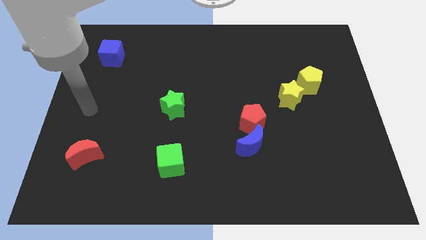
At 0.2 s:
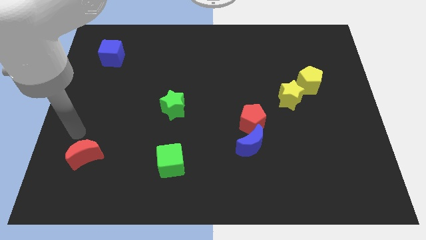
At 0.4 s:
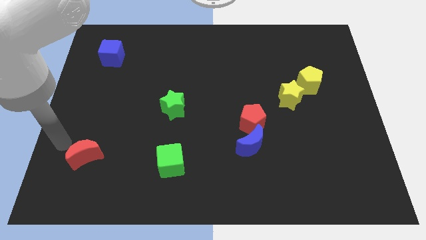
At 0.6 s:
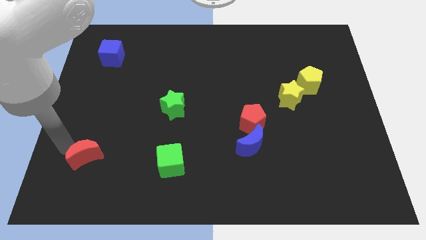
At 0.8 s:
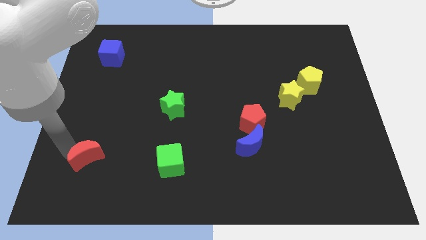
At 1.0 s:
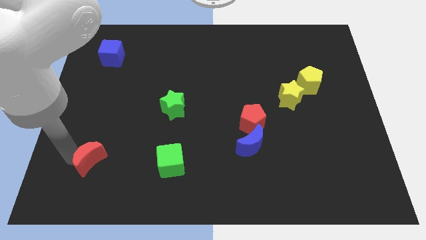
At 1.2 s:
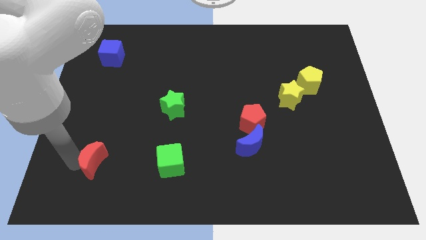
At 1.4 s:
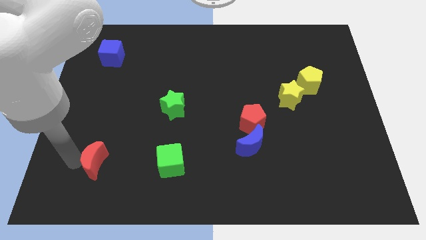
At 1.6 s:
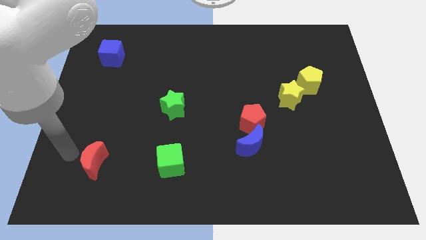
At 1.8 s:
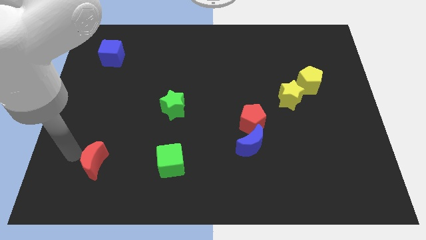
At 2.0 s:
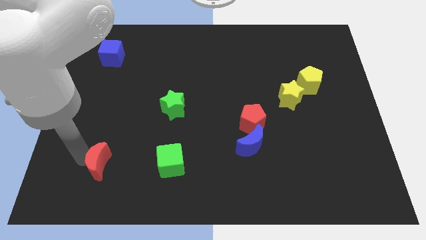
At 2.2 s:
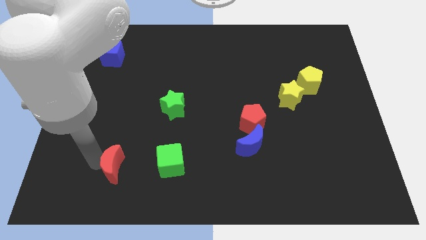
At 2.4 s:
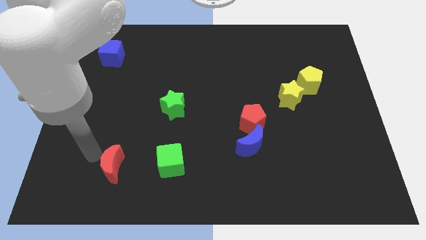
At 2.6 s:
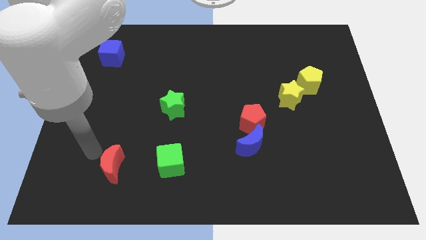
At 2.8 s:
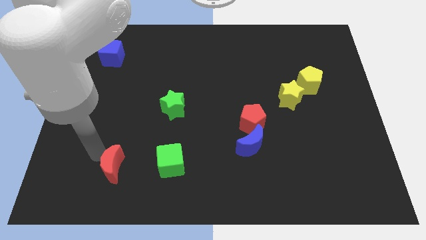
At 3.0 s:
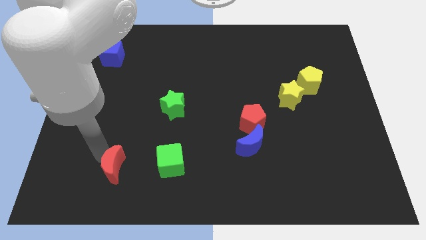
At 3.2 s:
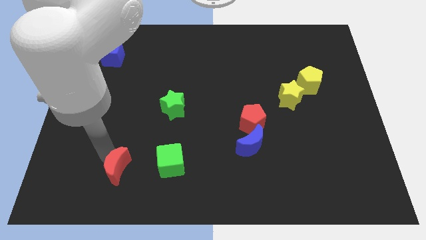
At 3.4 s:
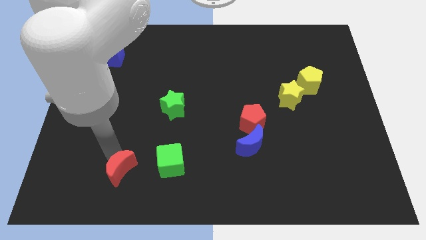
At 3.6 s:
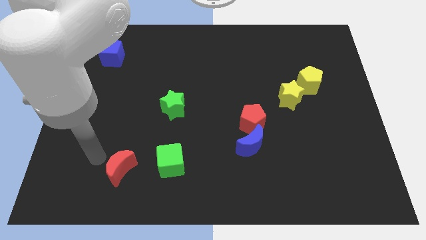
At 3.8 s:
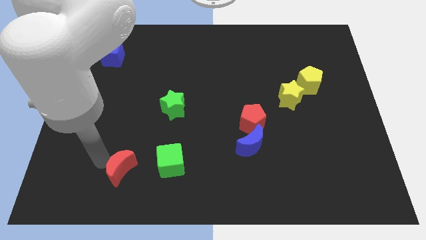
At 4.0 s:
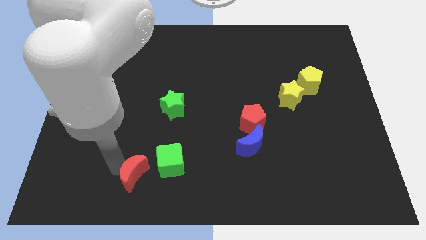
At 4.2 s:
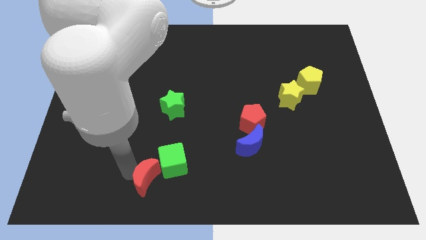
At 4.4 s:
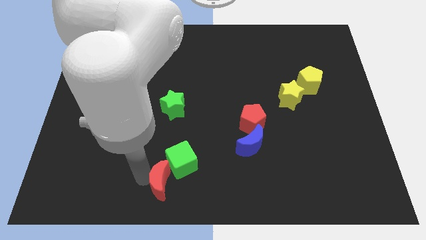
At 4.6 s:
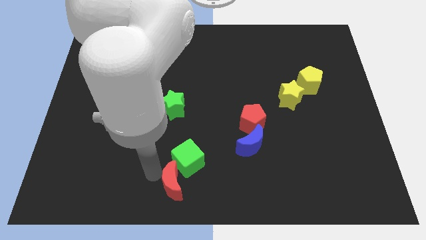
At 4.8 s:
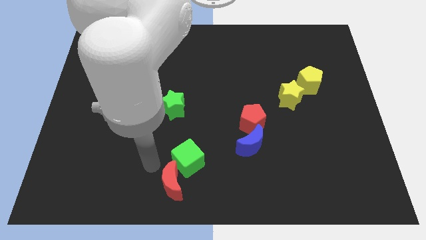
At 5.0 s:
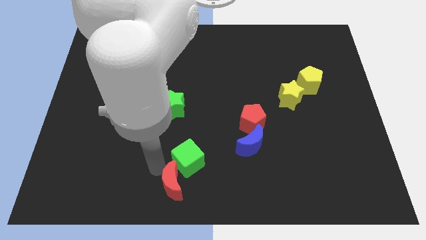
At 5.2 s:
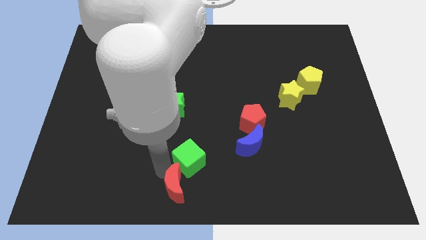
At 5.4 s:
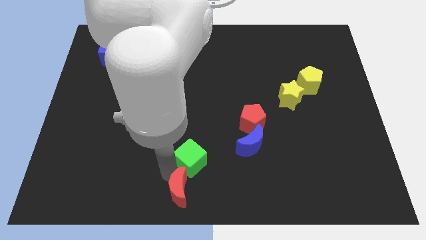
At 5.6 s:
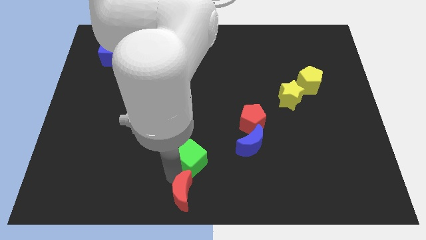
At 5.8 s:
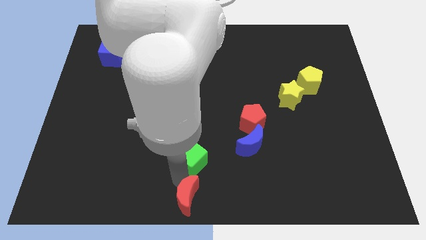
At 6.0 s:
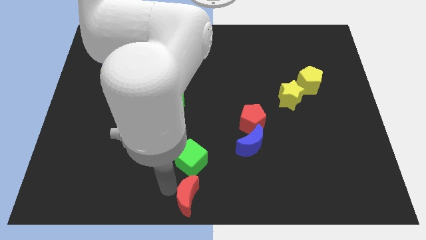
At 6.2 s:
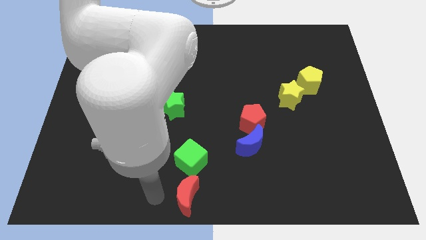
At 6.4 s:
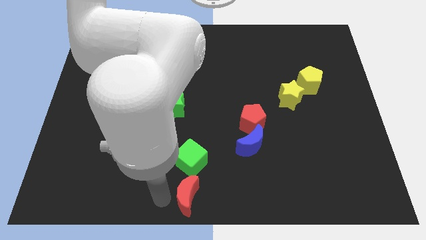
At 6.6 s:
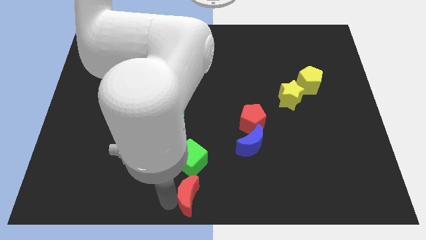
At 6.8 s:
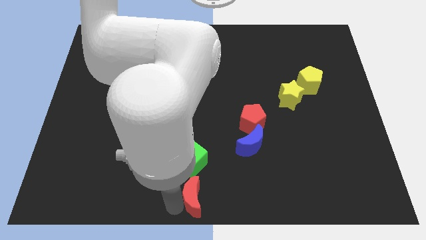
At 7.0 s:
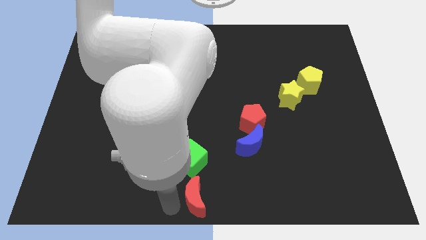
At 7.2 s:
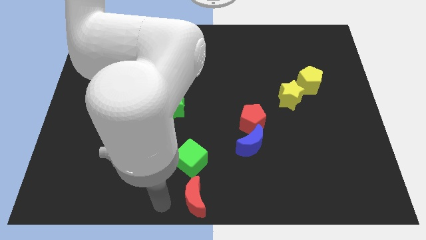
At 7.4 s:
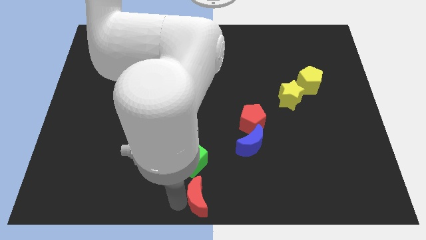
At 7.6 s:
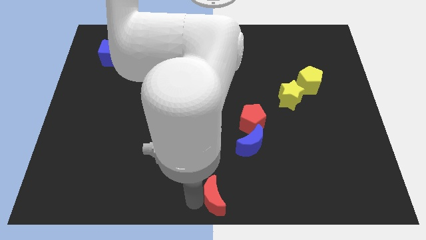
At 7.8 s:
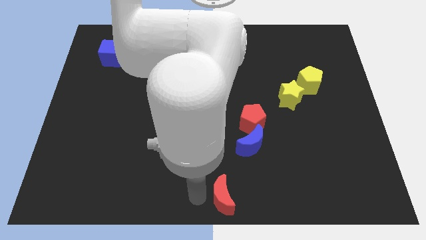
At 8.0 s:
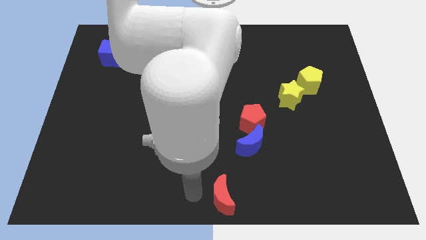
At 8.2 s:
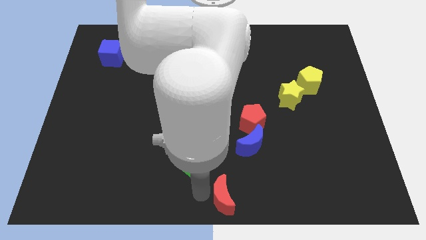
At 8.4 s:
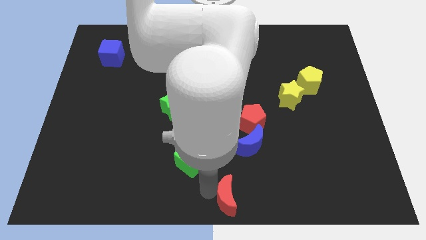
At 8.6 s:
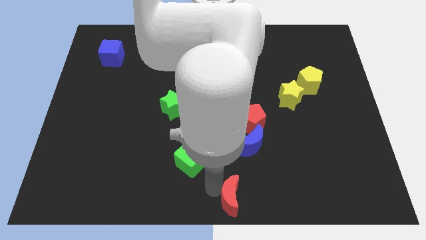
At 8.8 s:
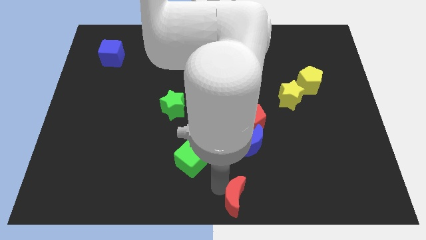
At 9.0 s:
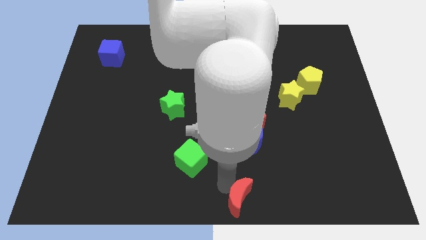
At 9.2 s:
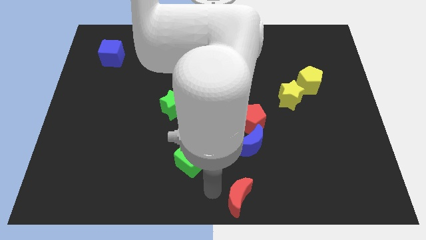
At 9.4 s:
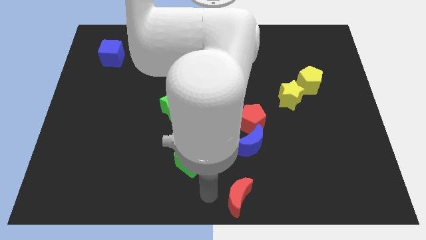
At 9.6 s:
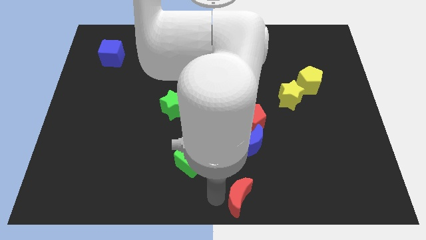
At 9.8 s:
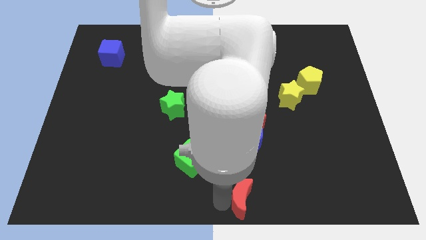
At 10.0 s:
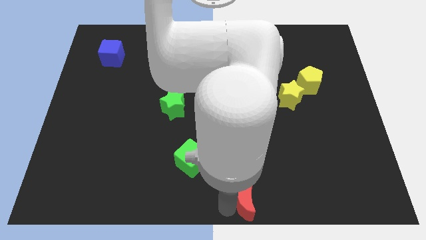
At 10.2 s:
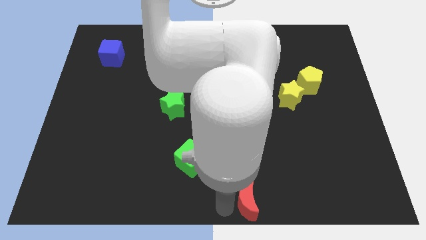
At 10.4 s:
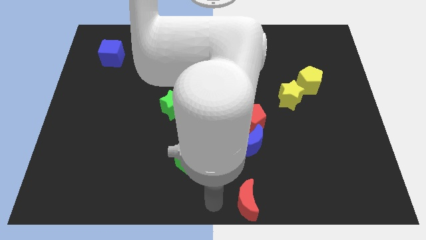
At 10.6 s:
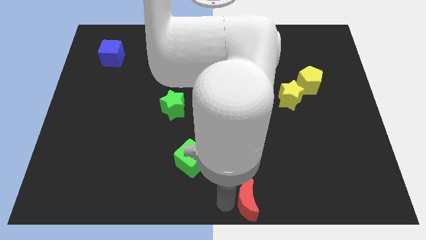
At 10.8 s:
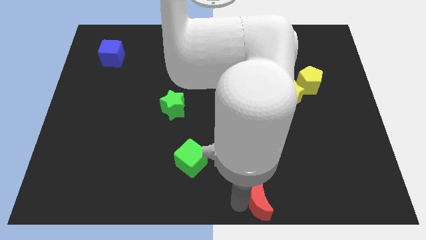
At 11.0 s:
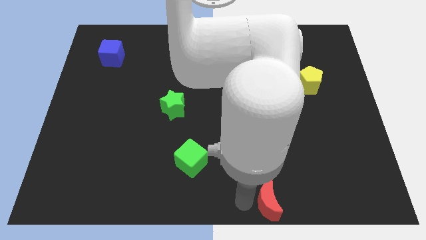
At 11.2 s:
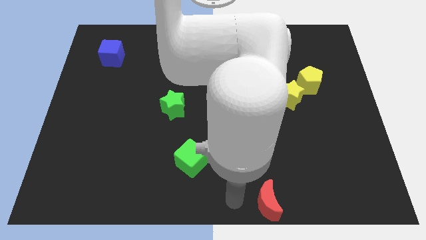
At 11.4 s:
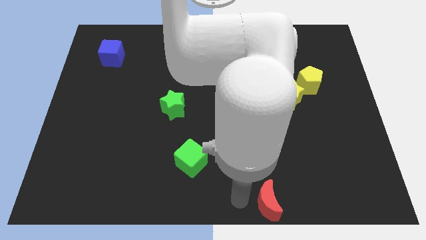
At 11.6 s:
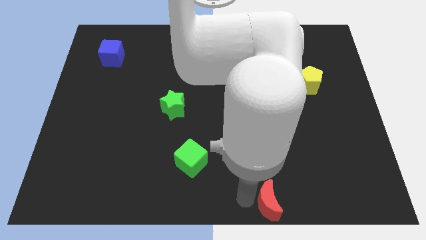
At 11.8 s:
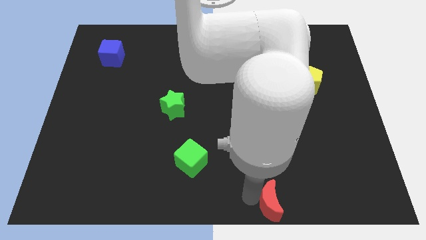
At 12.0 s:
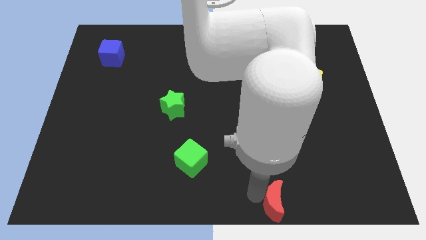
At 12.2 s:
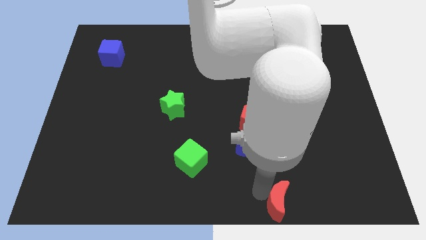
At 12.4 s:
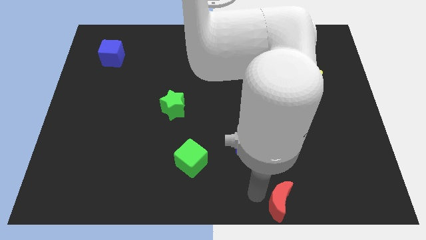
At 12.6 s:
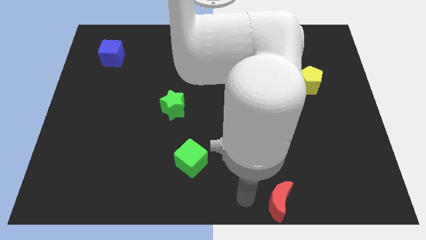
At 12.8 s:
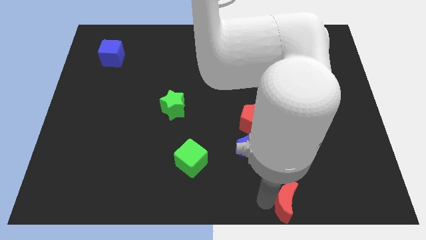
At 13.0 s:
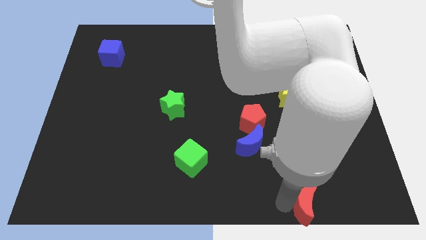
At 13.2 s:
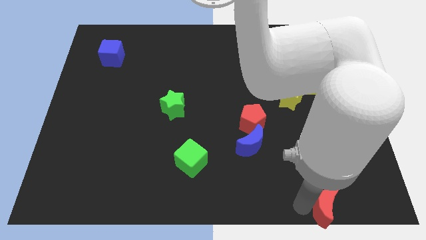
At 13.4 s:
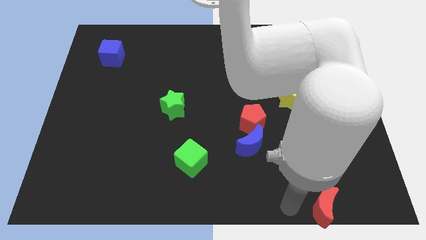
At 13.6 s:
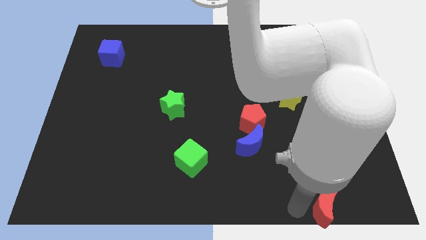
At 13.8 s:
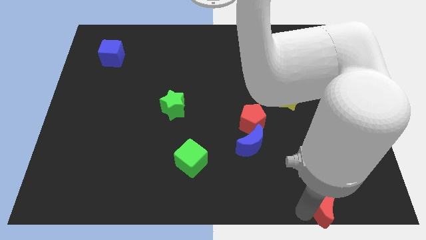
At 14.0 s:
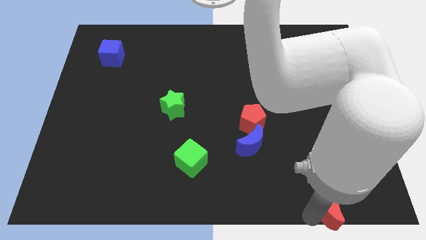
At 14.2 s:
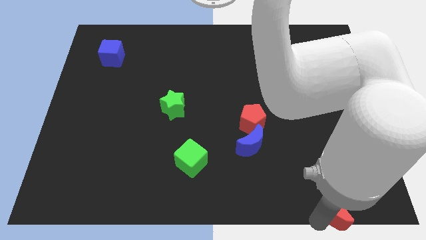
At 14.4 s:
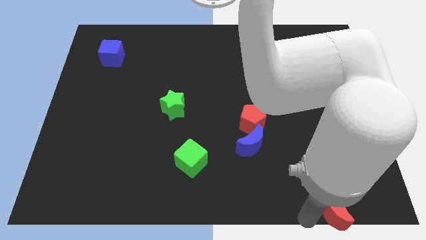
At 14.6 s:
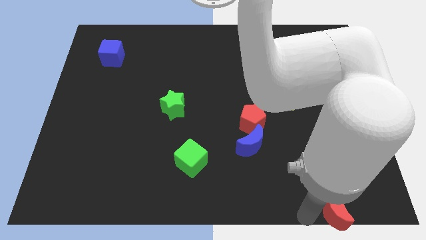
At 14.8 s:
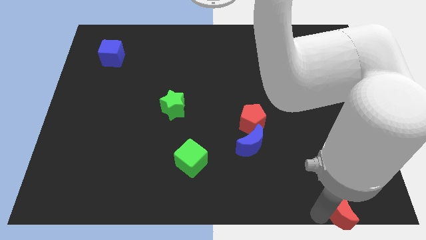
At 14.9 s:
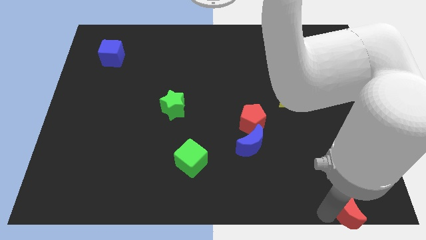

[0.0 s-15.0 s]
push the red moon to the bottom right of the board
